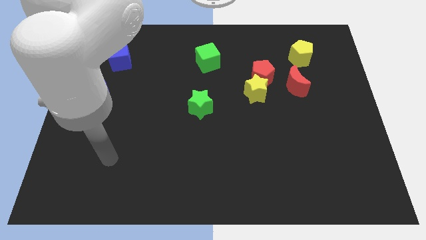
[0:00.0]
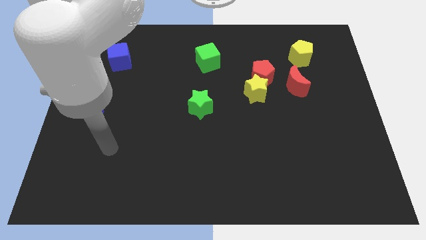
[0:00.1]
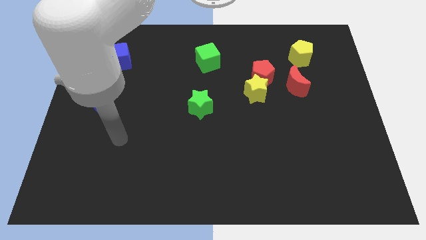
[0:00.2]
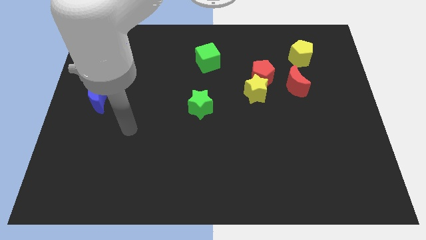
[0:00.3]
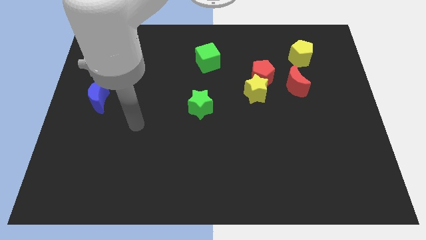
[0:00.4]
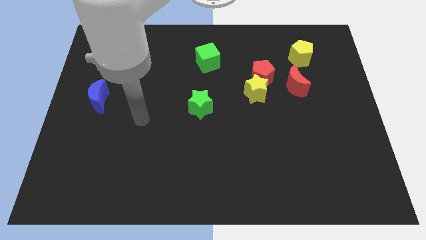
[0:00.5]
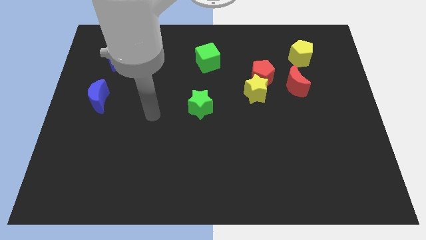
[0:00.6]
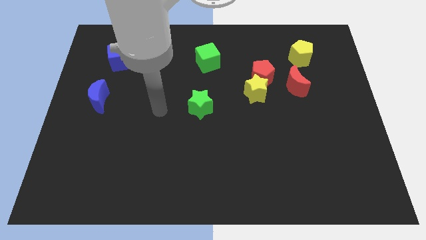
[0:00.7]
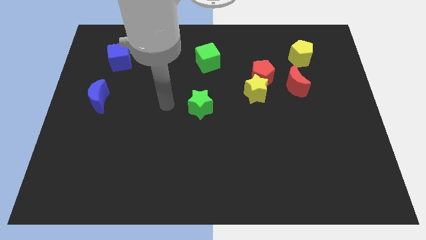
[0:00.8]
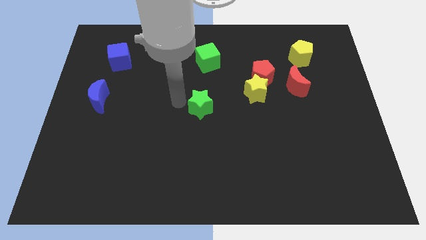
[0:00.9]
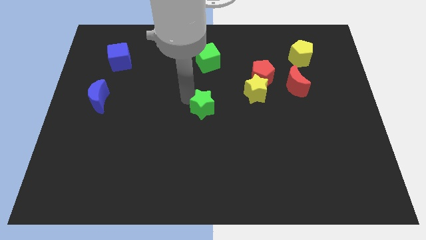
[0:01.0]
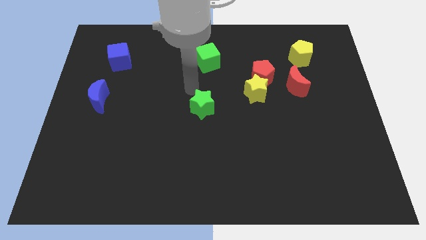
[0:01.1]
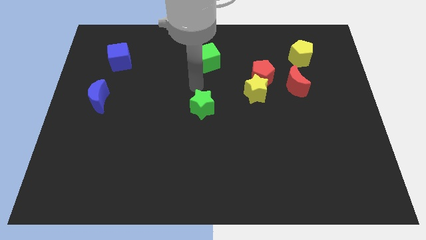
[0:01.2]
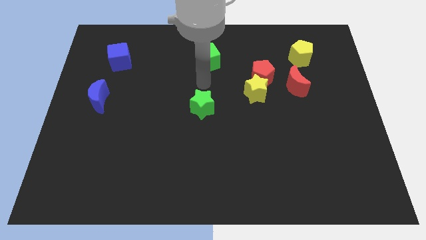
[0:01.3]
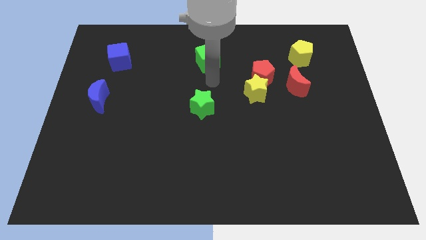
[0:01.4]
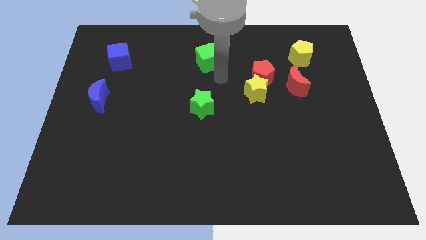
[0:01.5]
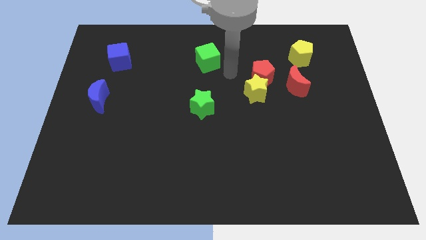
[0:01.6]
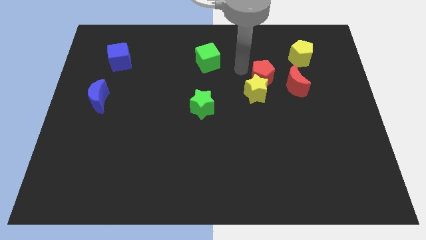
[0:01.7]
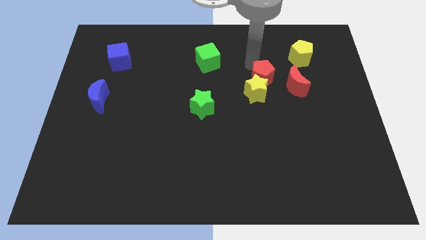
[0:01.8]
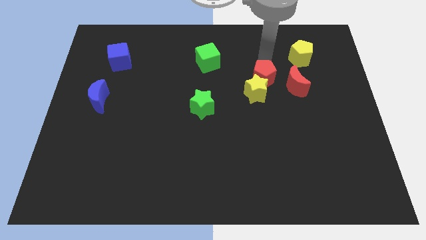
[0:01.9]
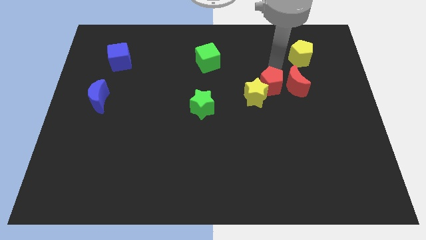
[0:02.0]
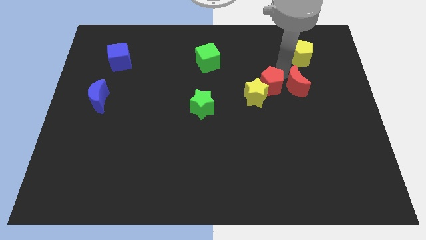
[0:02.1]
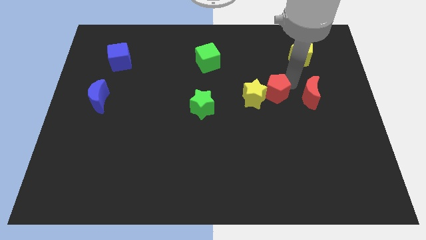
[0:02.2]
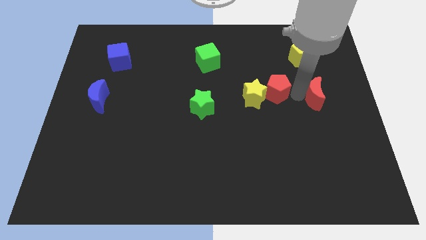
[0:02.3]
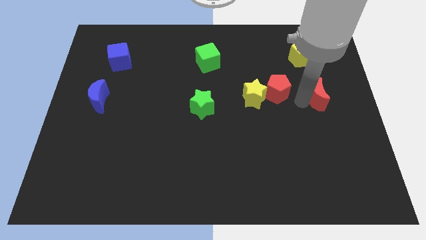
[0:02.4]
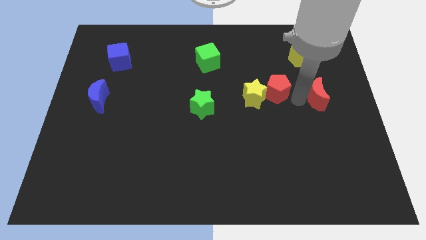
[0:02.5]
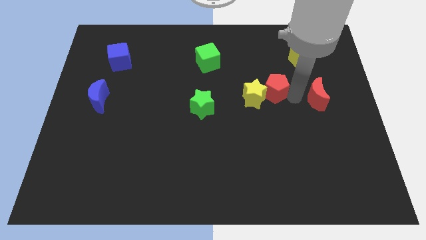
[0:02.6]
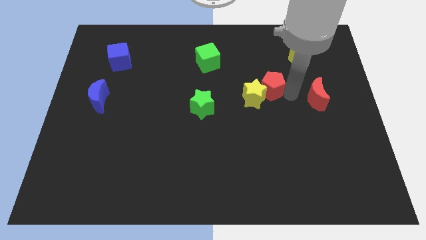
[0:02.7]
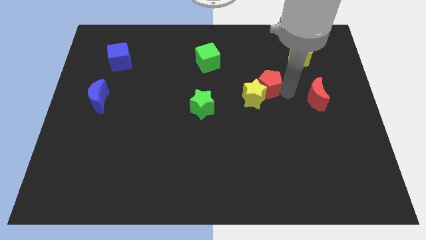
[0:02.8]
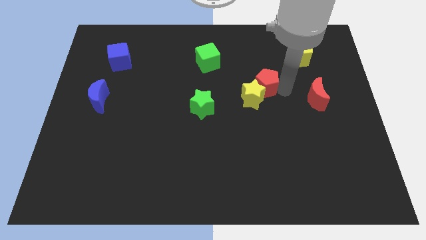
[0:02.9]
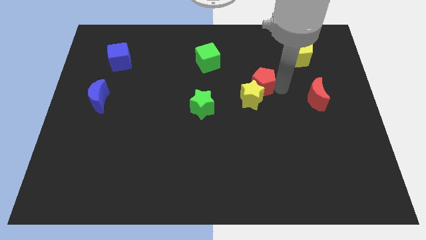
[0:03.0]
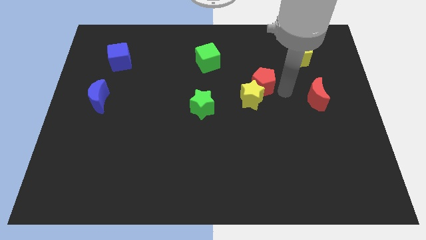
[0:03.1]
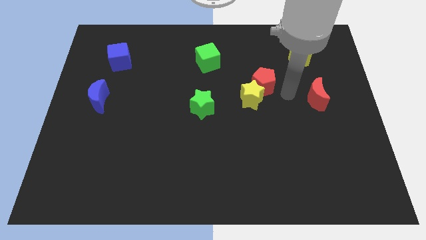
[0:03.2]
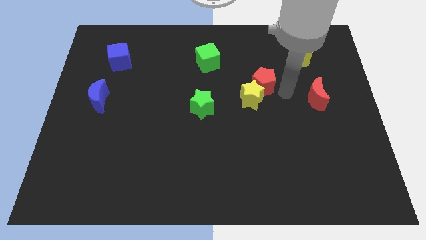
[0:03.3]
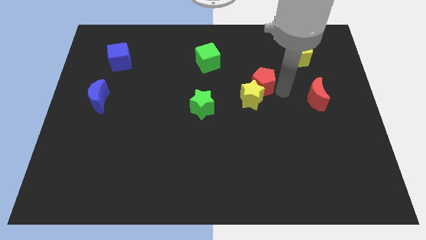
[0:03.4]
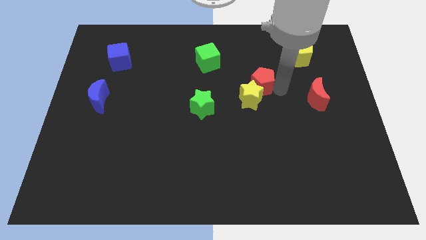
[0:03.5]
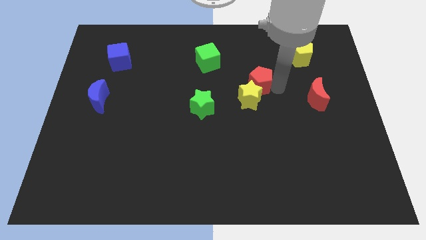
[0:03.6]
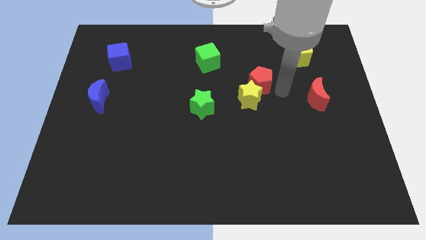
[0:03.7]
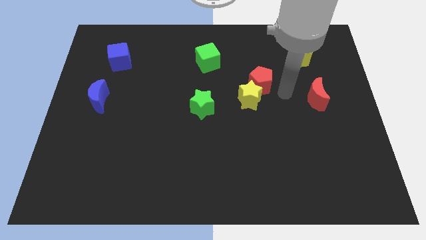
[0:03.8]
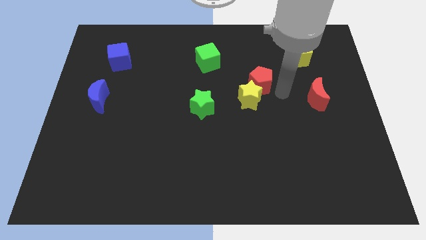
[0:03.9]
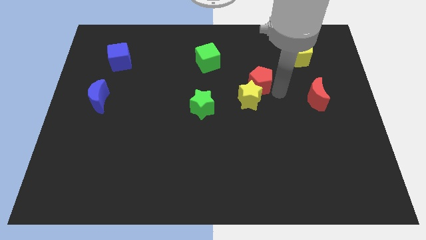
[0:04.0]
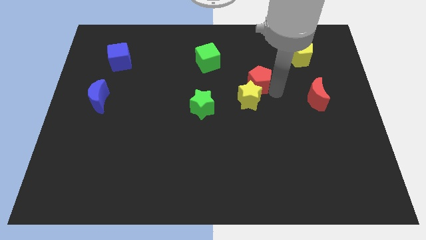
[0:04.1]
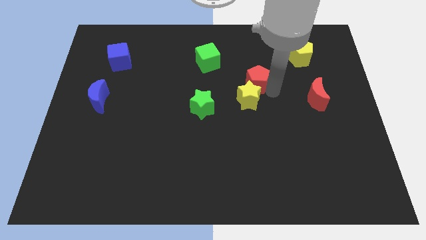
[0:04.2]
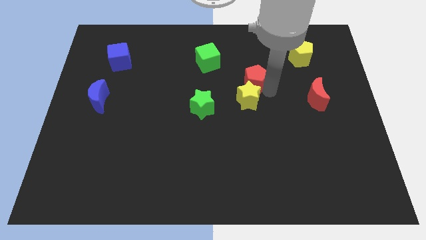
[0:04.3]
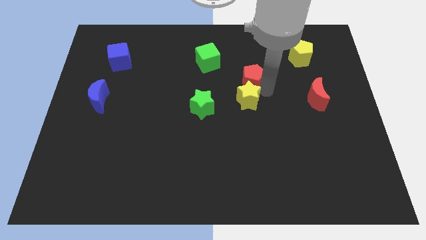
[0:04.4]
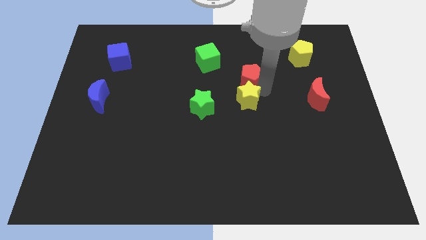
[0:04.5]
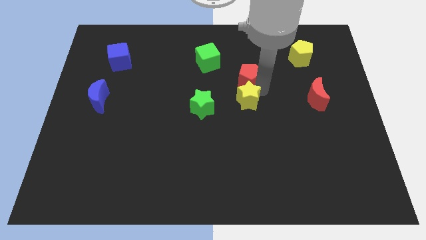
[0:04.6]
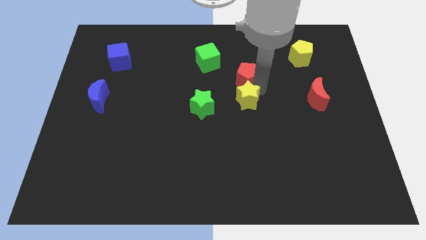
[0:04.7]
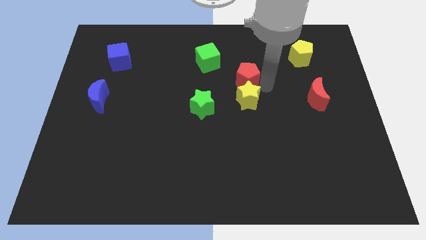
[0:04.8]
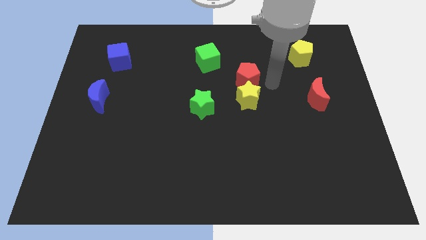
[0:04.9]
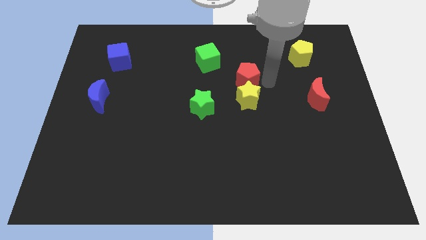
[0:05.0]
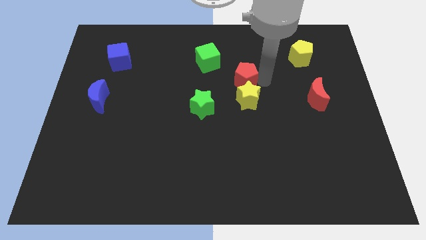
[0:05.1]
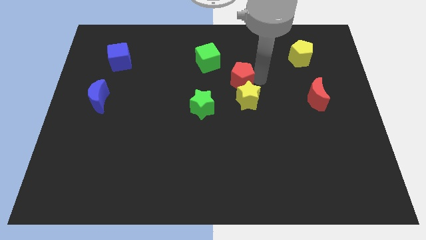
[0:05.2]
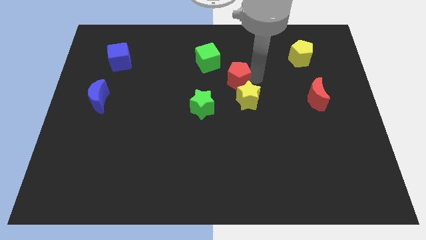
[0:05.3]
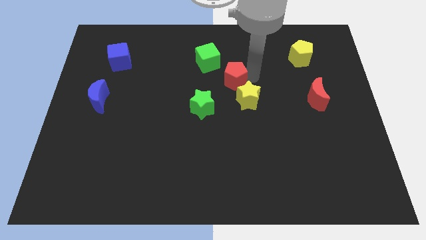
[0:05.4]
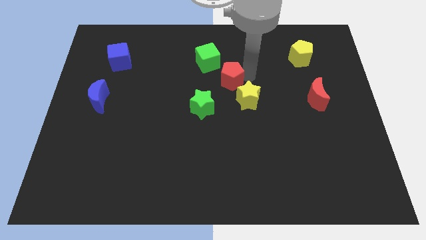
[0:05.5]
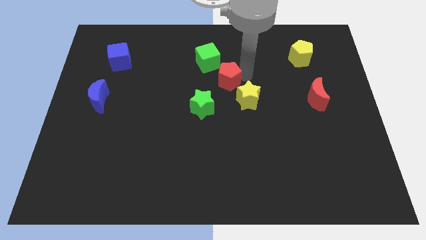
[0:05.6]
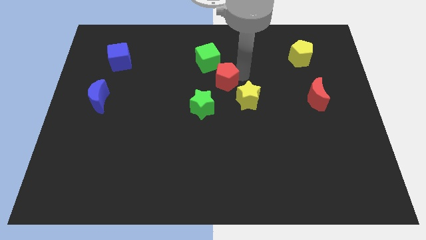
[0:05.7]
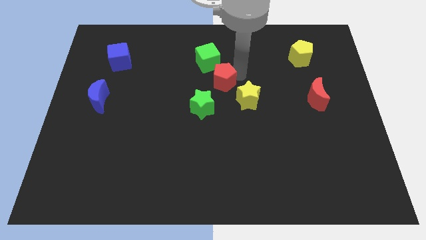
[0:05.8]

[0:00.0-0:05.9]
push the red pentagon to the top side of the green star

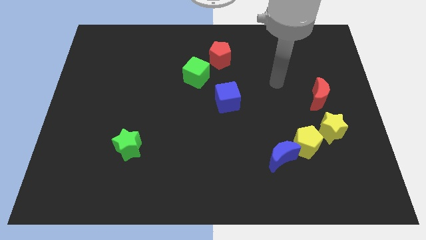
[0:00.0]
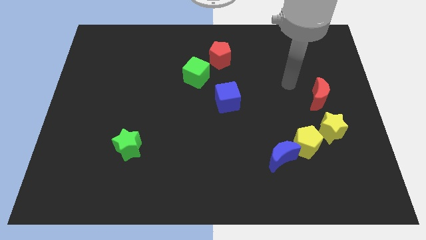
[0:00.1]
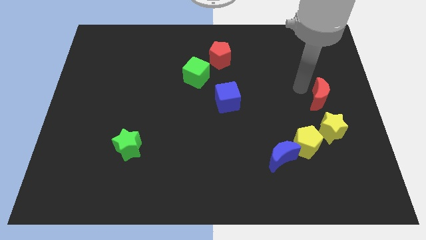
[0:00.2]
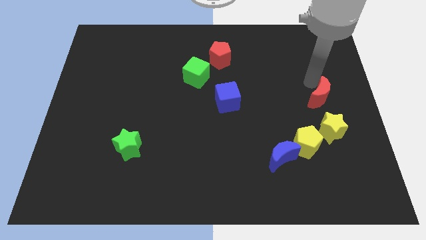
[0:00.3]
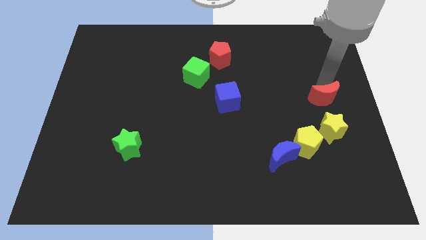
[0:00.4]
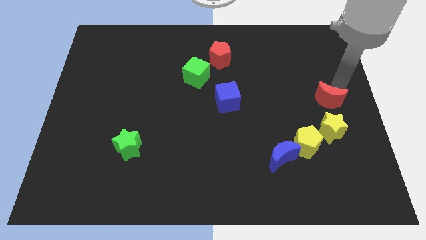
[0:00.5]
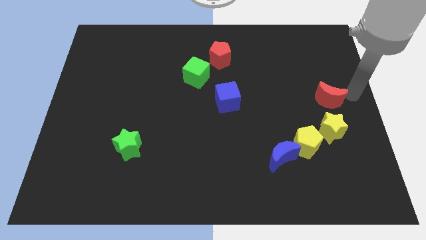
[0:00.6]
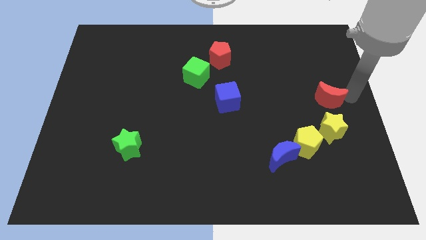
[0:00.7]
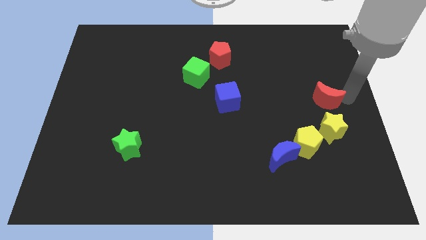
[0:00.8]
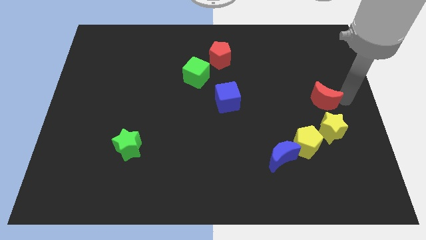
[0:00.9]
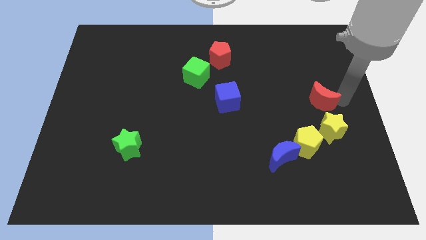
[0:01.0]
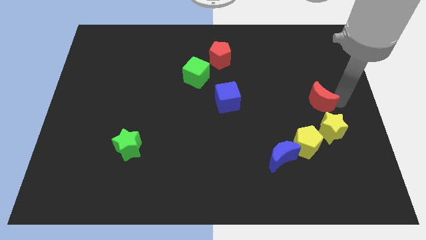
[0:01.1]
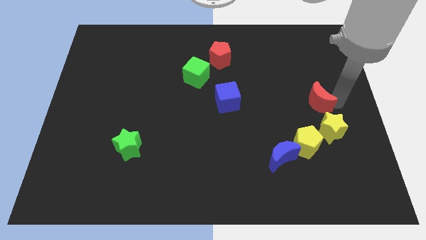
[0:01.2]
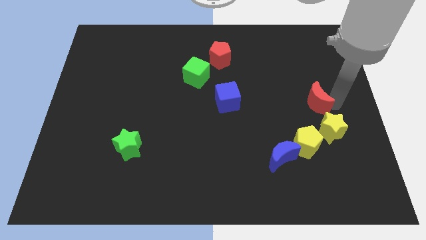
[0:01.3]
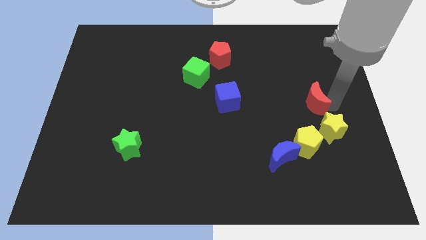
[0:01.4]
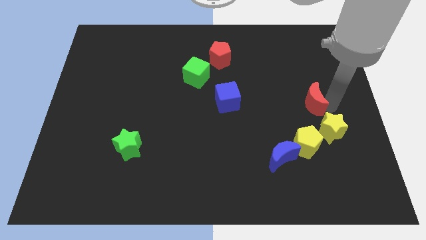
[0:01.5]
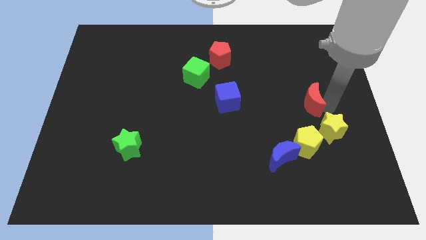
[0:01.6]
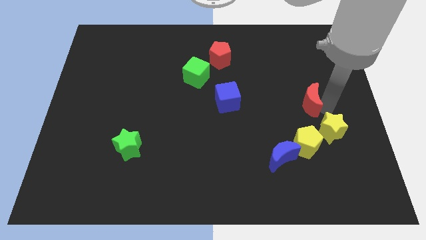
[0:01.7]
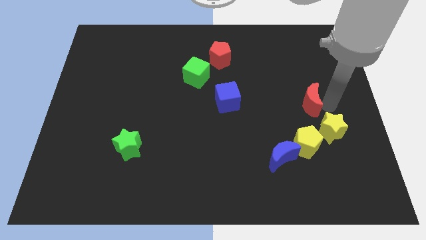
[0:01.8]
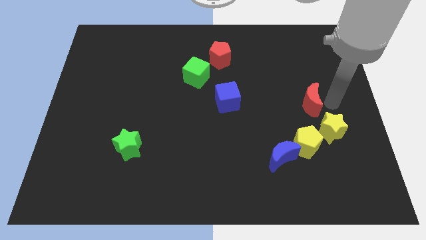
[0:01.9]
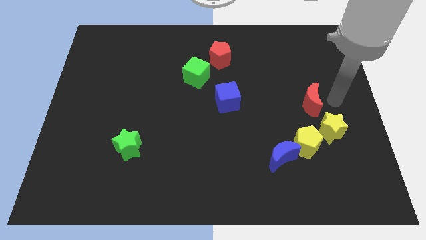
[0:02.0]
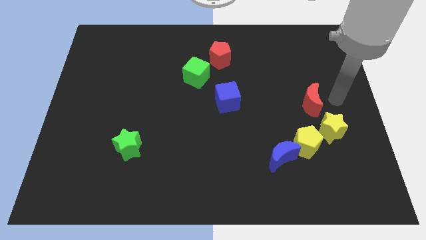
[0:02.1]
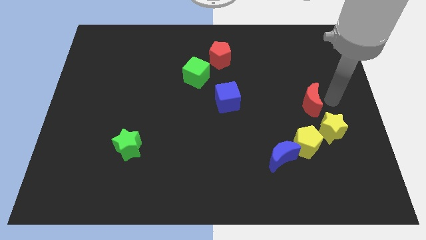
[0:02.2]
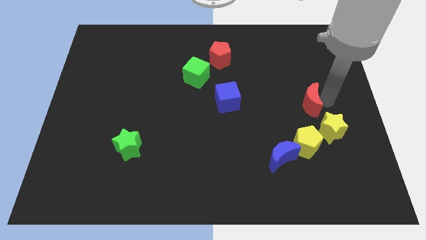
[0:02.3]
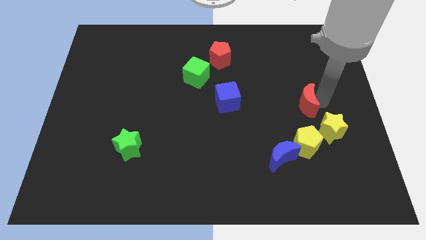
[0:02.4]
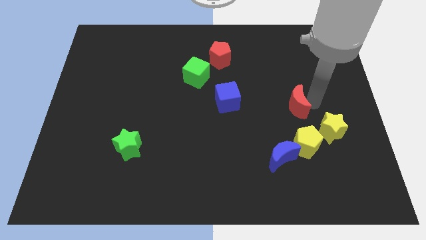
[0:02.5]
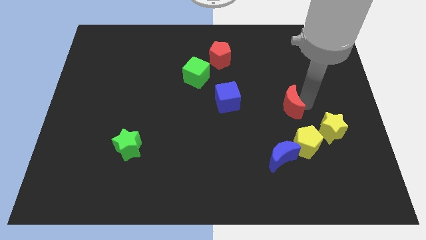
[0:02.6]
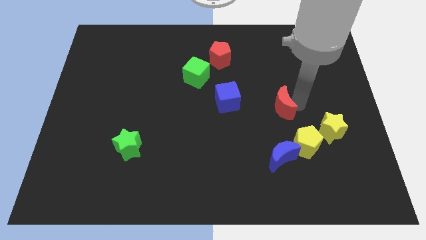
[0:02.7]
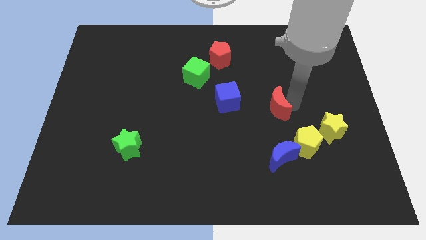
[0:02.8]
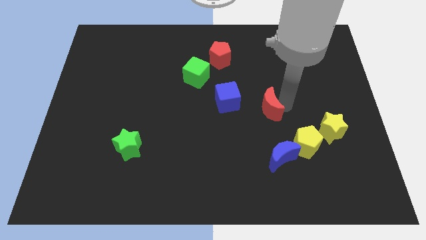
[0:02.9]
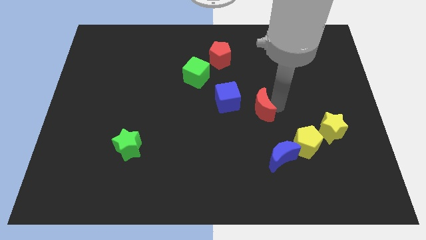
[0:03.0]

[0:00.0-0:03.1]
put the red moon diagonally down and to the right of the blue cube
